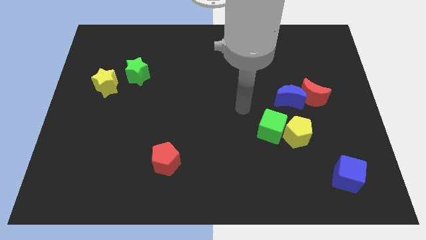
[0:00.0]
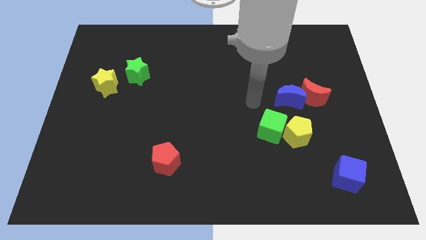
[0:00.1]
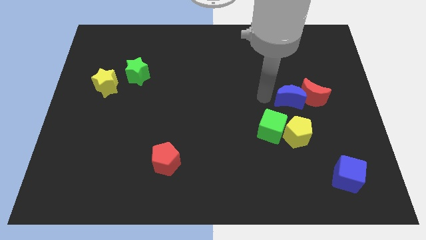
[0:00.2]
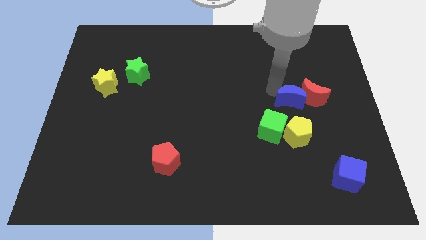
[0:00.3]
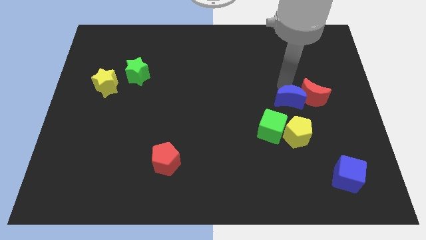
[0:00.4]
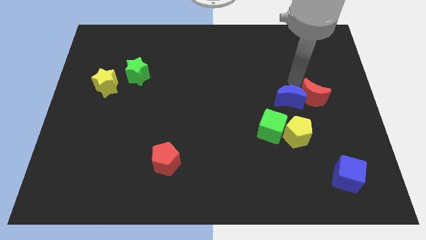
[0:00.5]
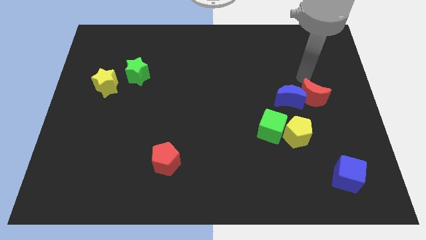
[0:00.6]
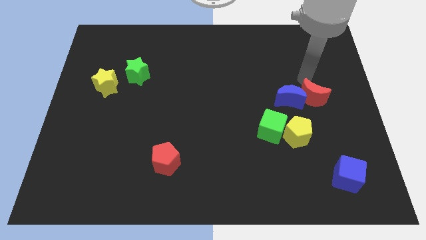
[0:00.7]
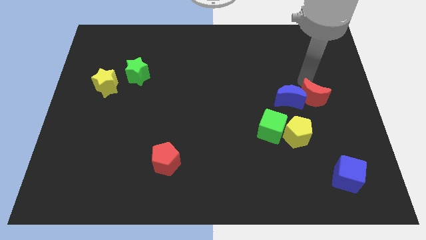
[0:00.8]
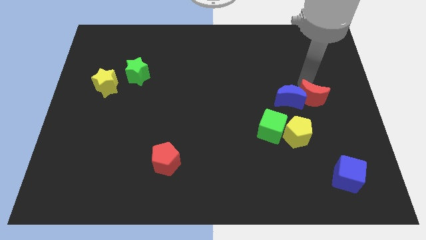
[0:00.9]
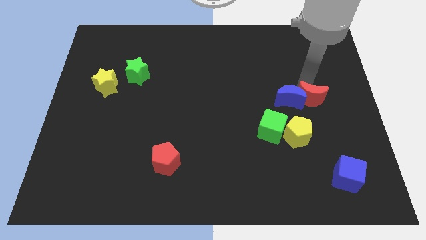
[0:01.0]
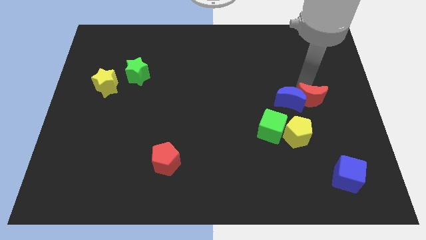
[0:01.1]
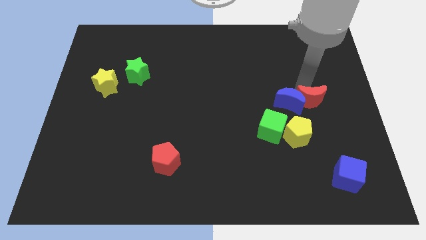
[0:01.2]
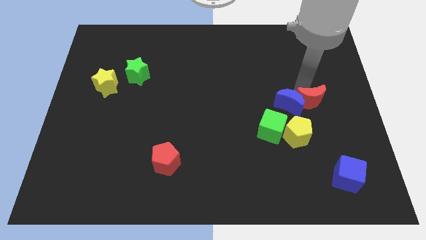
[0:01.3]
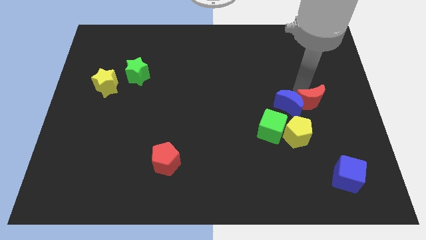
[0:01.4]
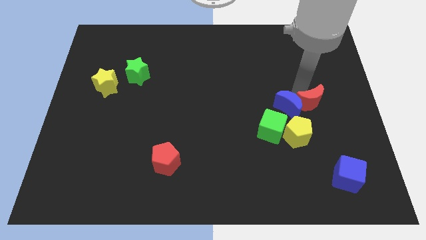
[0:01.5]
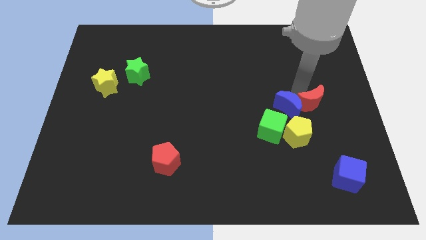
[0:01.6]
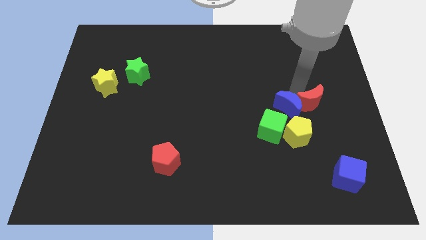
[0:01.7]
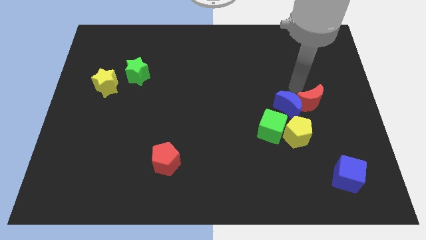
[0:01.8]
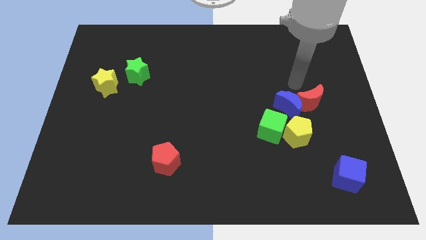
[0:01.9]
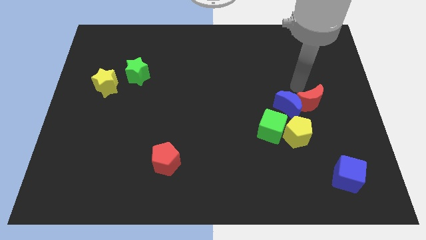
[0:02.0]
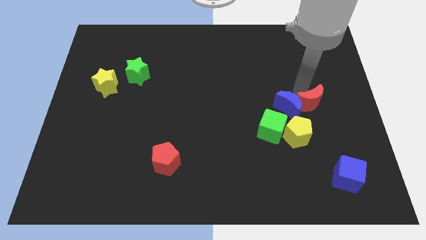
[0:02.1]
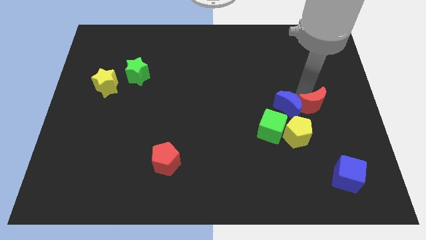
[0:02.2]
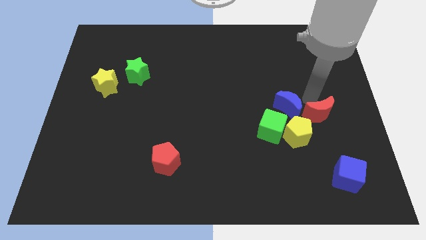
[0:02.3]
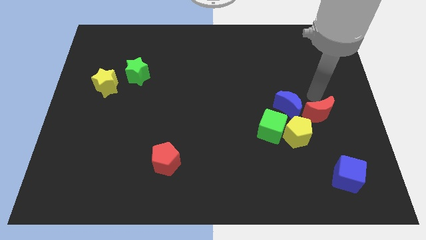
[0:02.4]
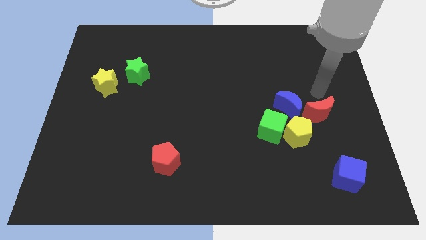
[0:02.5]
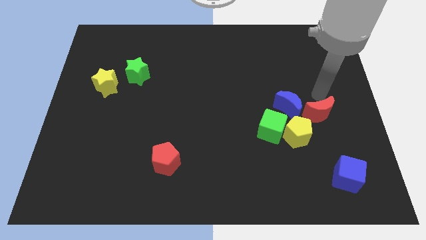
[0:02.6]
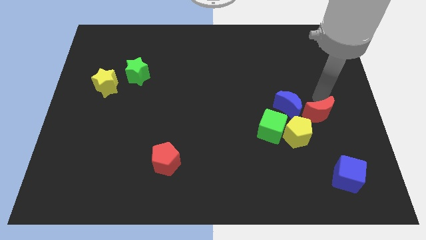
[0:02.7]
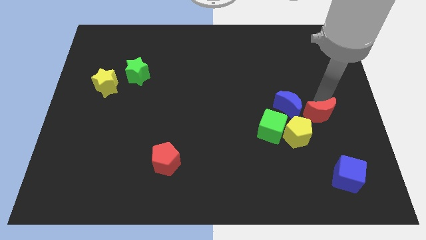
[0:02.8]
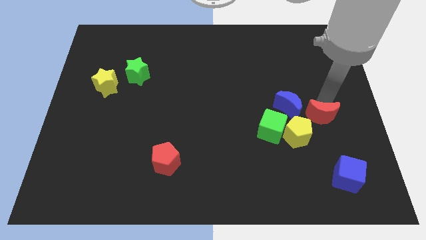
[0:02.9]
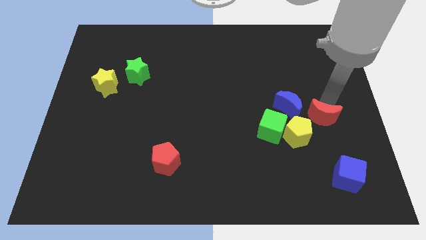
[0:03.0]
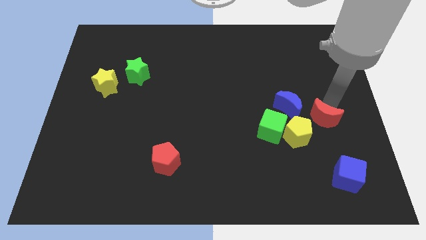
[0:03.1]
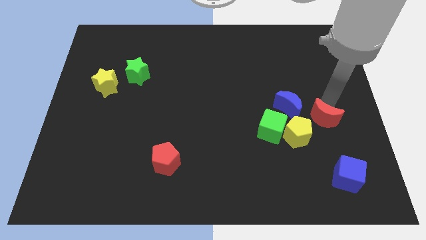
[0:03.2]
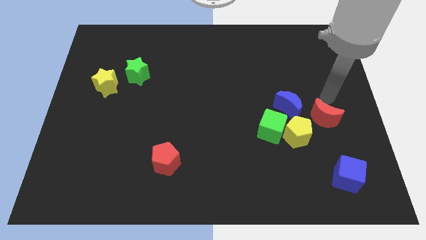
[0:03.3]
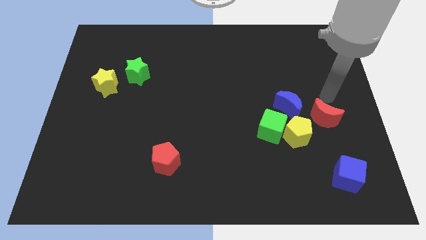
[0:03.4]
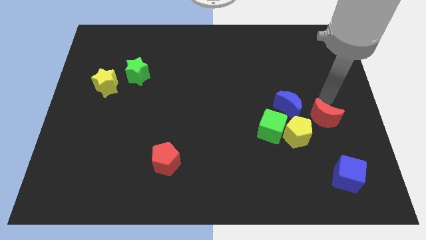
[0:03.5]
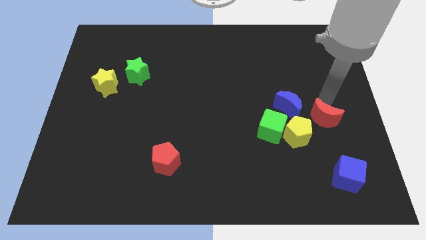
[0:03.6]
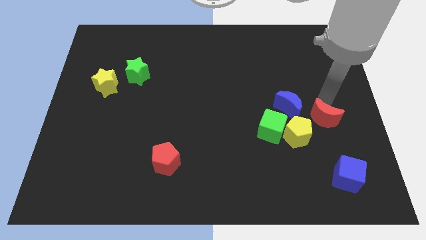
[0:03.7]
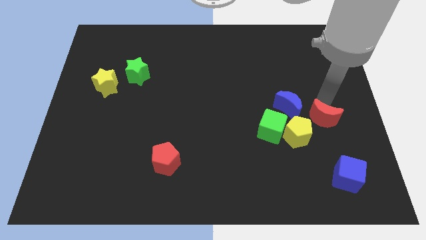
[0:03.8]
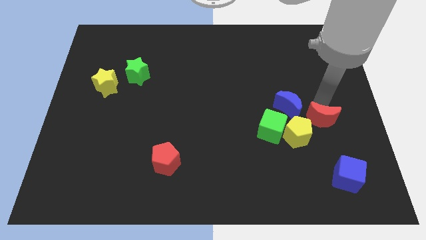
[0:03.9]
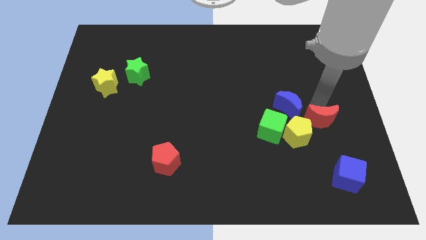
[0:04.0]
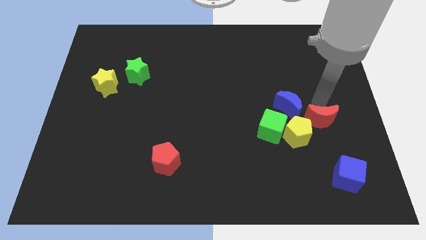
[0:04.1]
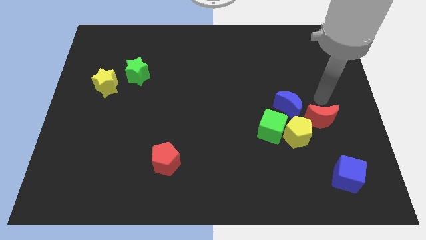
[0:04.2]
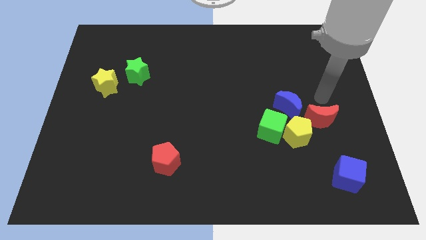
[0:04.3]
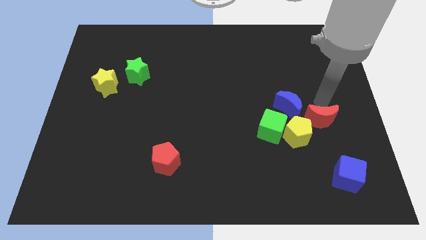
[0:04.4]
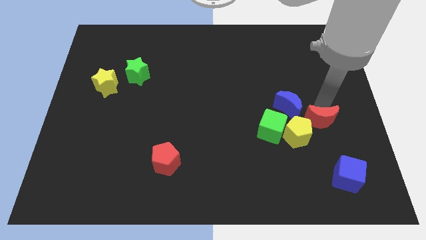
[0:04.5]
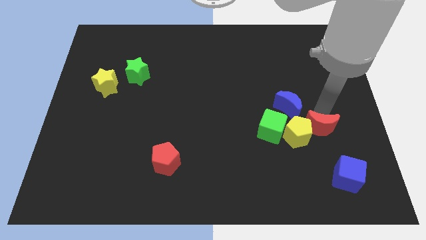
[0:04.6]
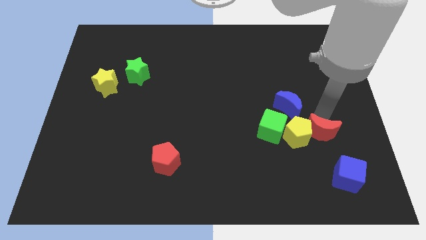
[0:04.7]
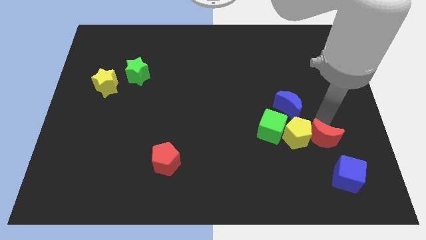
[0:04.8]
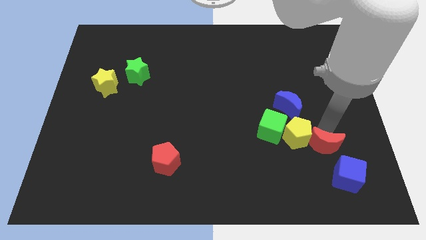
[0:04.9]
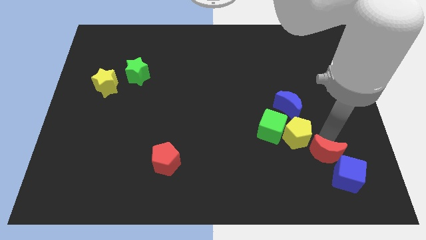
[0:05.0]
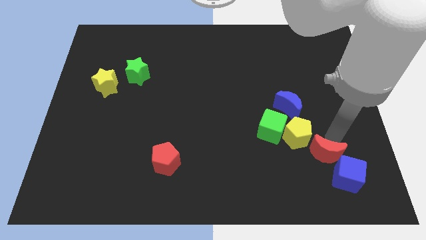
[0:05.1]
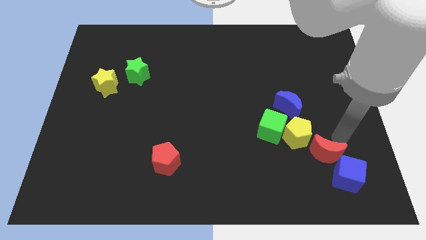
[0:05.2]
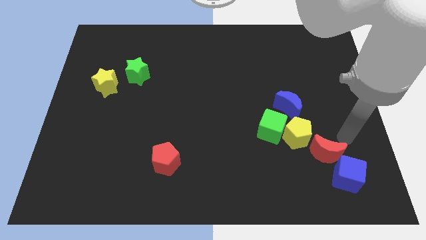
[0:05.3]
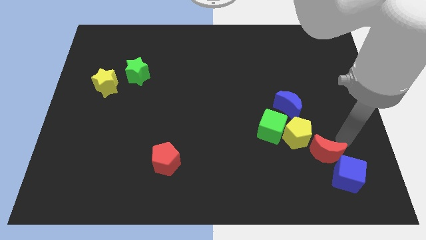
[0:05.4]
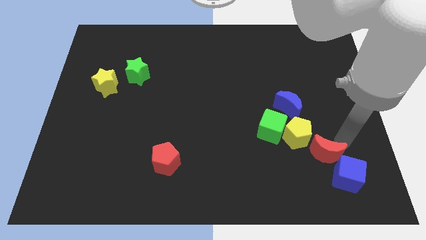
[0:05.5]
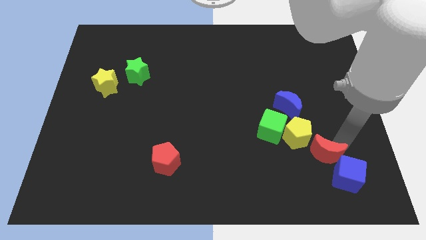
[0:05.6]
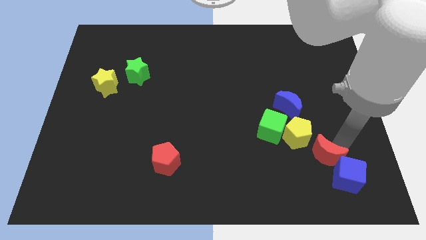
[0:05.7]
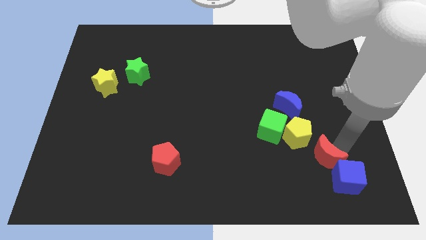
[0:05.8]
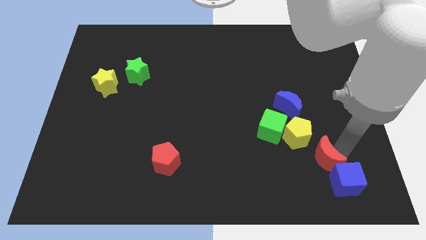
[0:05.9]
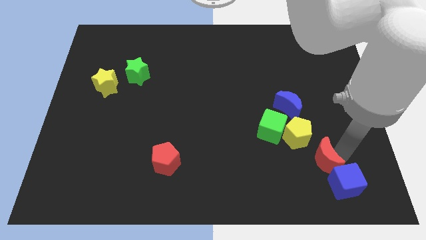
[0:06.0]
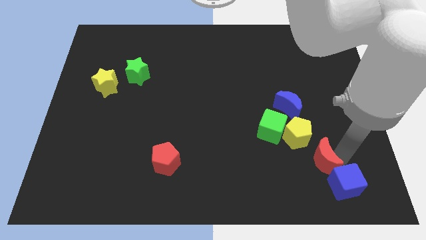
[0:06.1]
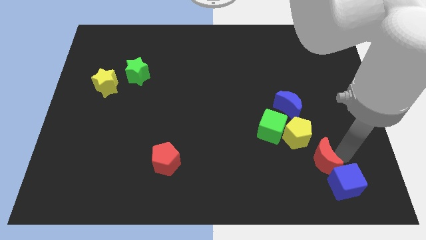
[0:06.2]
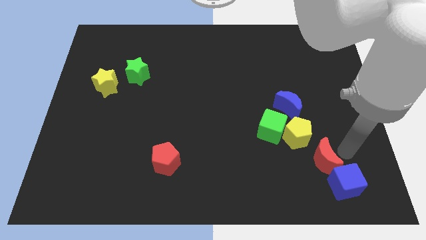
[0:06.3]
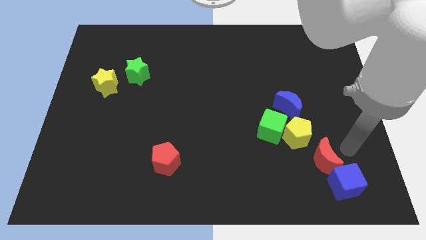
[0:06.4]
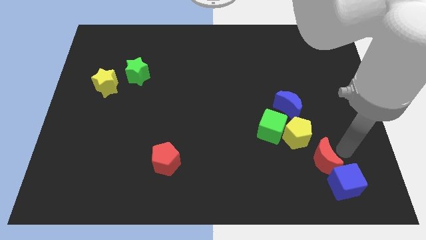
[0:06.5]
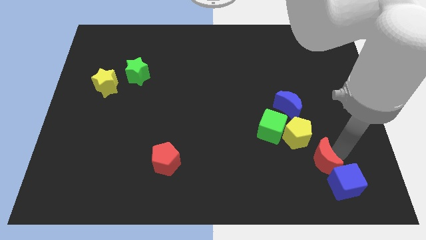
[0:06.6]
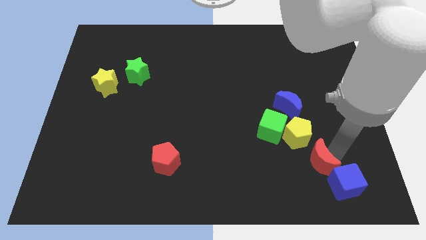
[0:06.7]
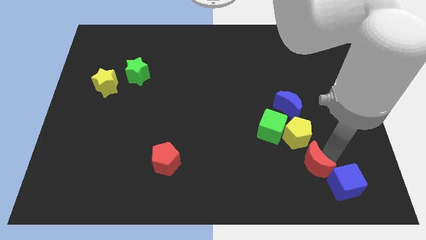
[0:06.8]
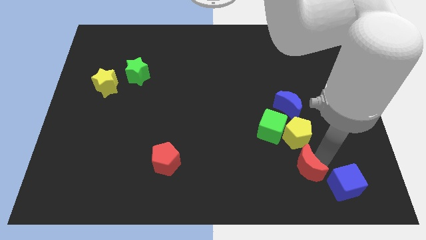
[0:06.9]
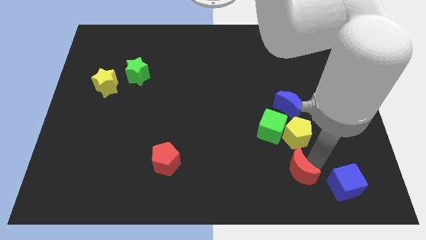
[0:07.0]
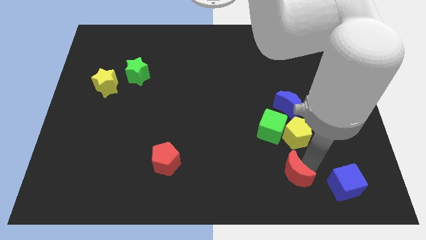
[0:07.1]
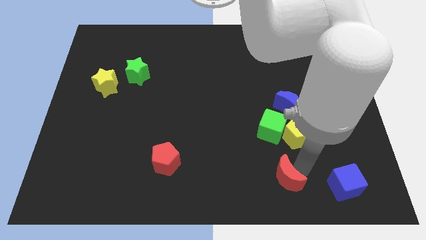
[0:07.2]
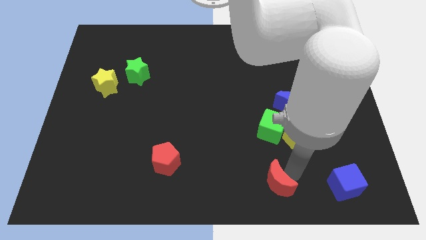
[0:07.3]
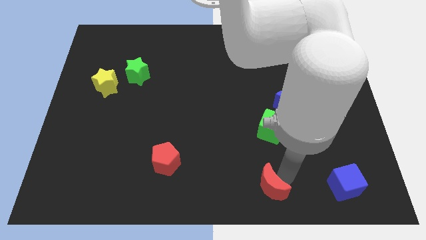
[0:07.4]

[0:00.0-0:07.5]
push the red moon to the bottom side
